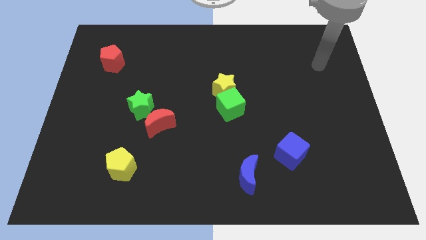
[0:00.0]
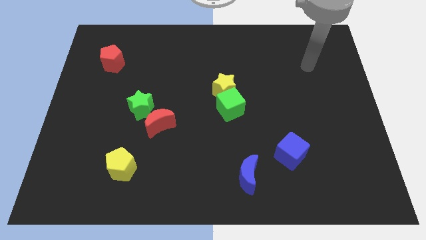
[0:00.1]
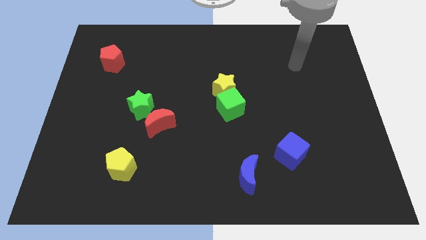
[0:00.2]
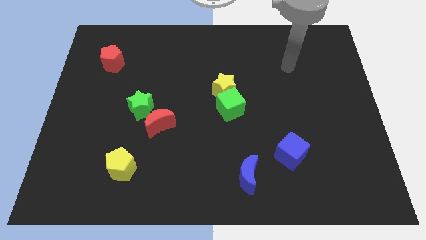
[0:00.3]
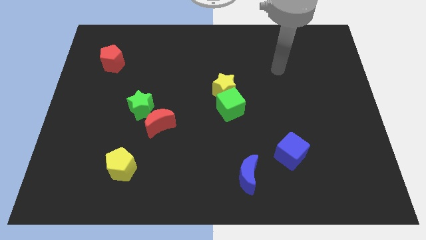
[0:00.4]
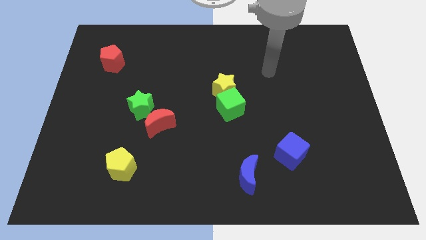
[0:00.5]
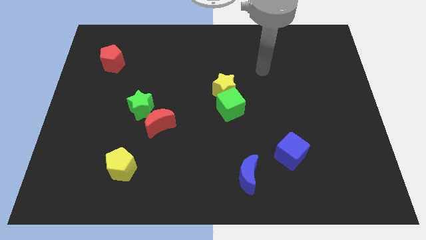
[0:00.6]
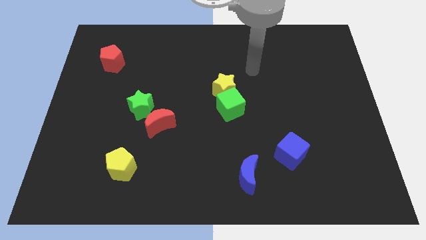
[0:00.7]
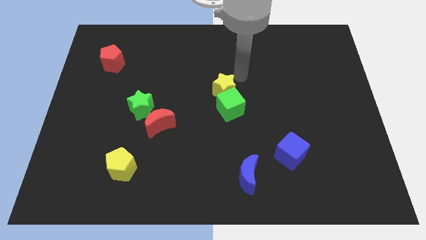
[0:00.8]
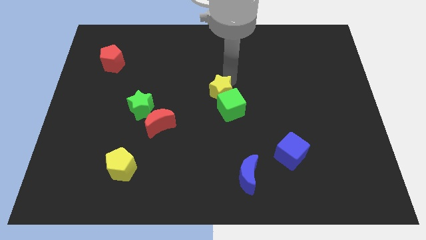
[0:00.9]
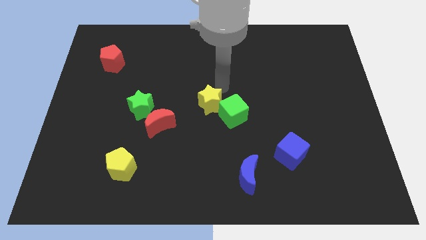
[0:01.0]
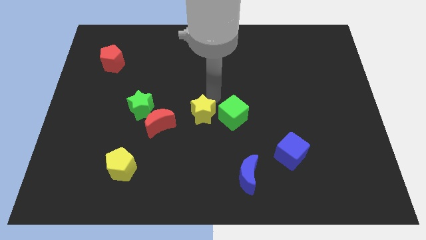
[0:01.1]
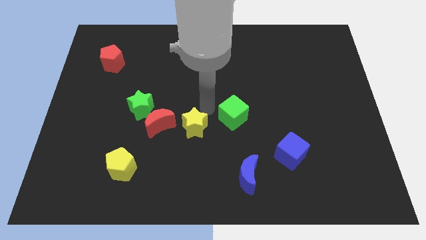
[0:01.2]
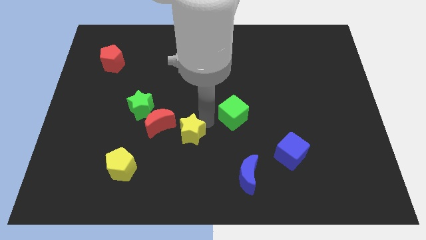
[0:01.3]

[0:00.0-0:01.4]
move the green cube away from the yellow star

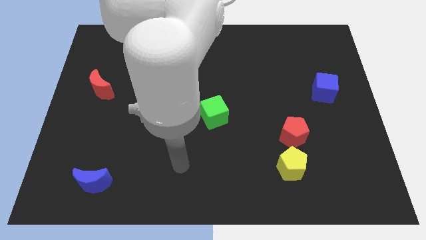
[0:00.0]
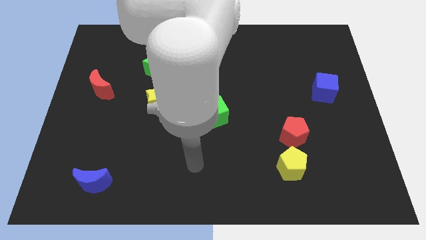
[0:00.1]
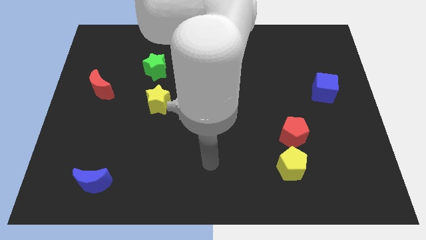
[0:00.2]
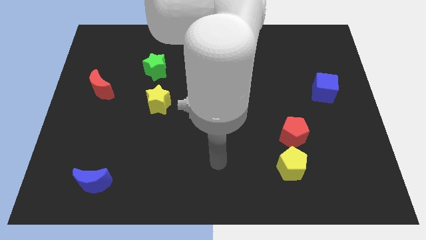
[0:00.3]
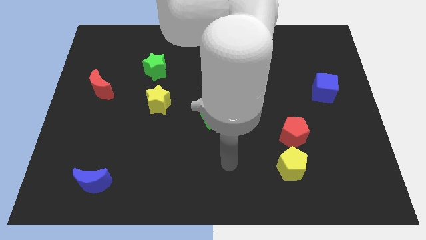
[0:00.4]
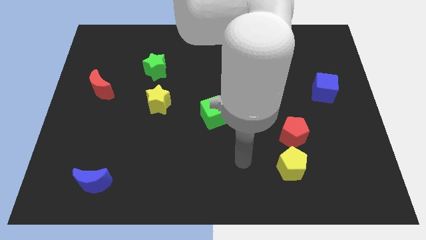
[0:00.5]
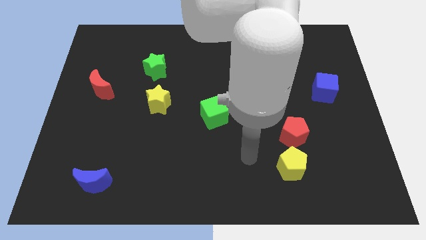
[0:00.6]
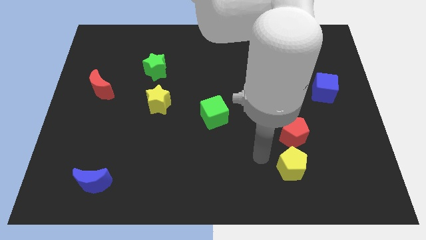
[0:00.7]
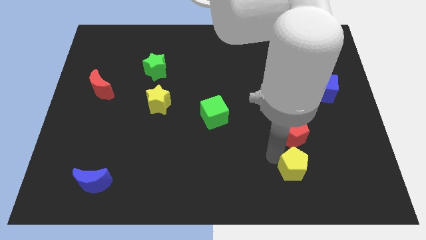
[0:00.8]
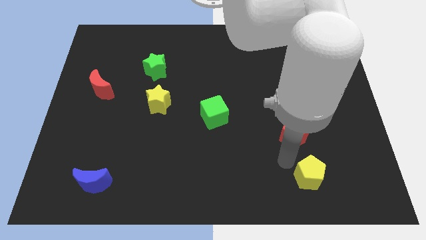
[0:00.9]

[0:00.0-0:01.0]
pull the red pentagon apart from the yellow pentagon

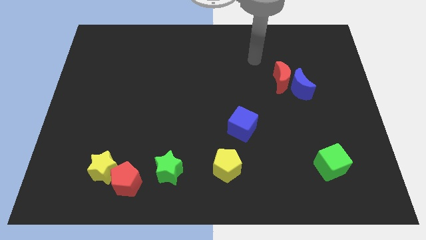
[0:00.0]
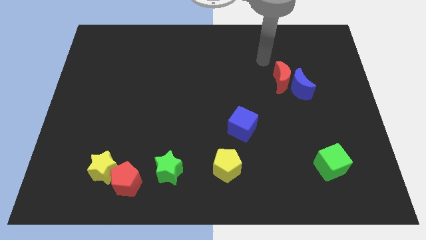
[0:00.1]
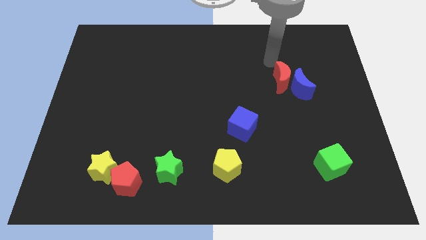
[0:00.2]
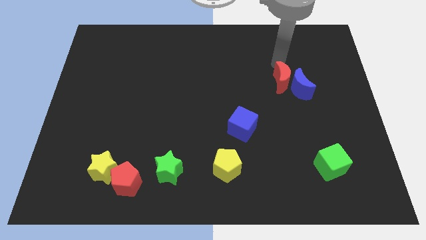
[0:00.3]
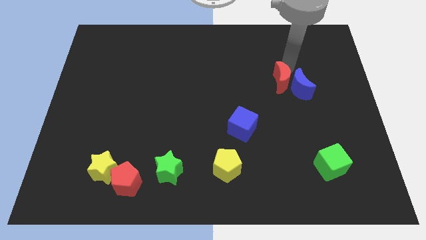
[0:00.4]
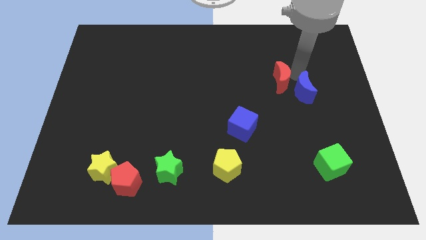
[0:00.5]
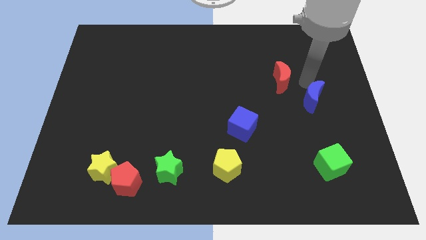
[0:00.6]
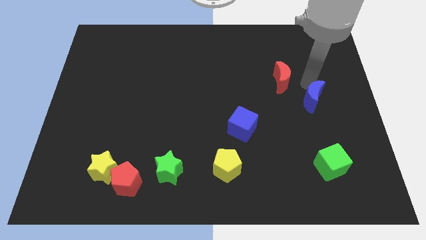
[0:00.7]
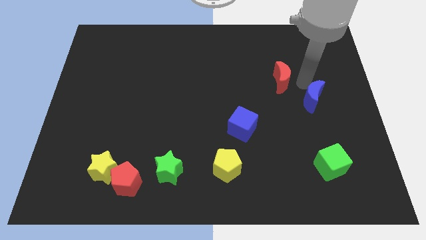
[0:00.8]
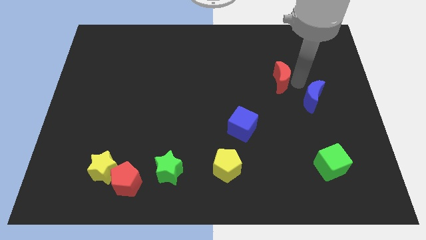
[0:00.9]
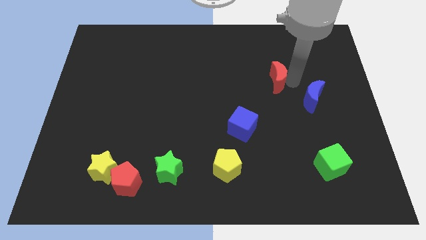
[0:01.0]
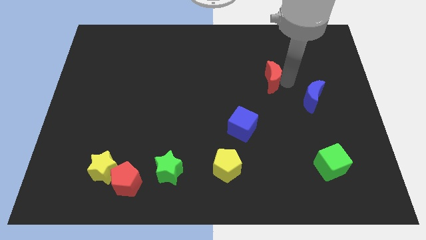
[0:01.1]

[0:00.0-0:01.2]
move the red moon away from the blue moon

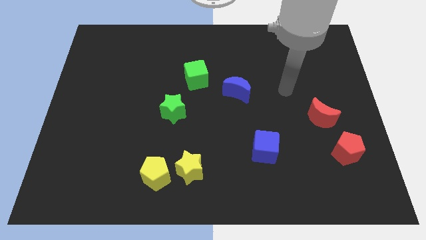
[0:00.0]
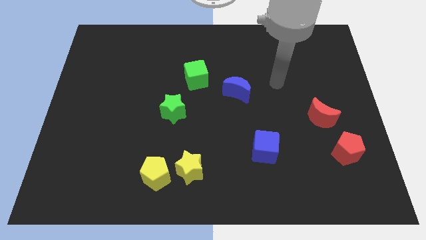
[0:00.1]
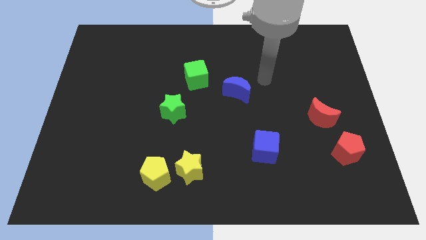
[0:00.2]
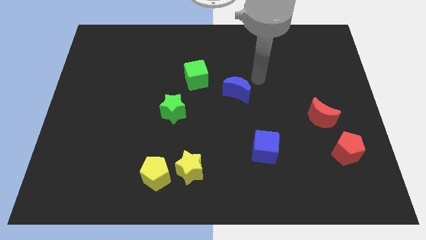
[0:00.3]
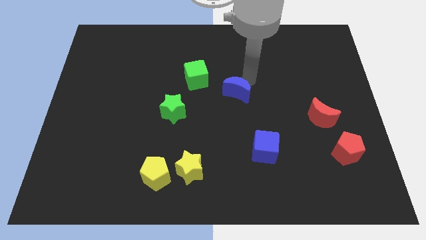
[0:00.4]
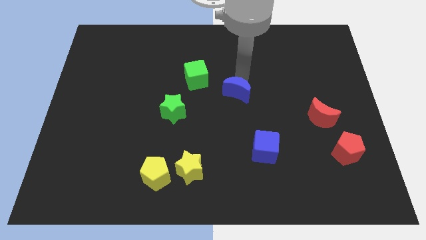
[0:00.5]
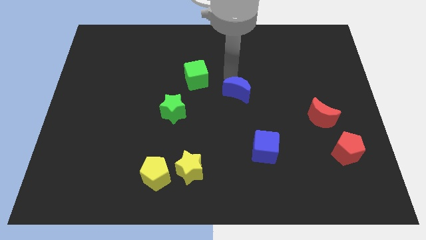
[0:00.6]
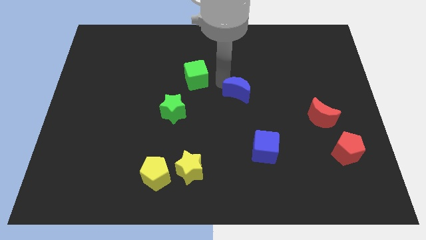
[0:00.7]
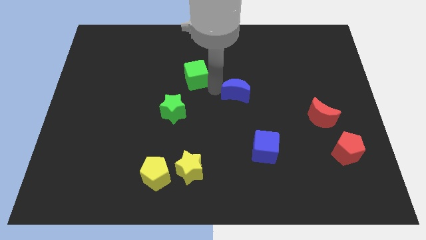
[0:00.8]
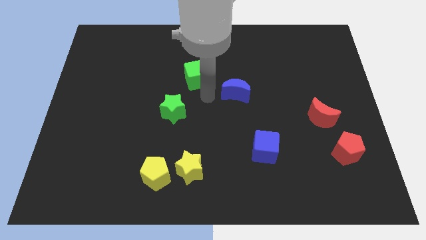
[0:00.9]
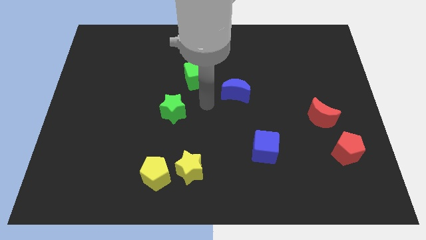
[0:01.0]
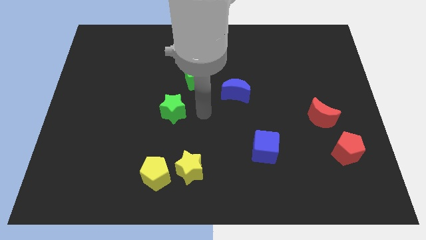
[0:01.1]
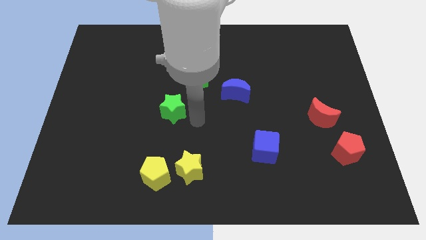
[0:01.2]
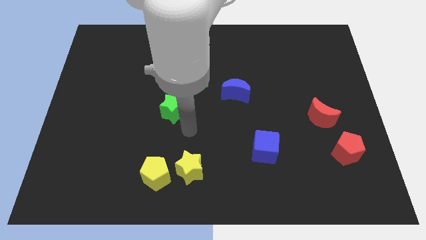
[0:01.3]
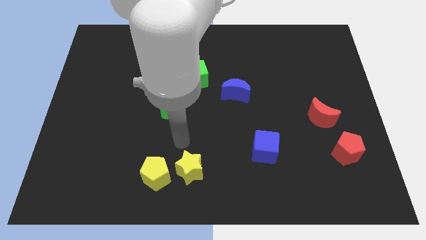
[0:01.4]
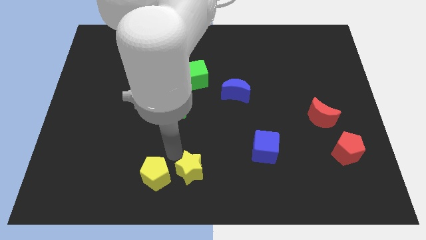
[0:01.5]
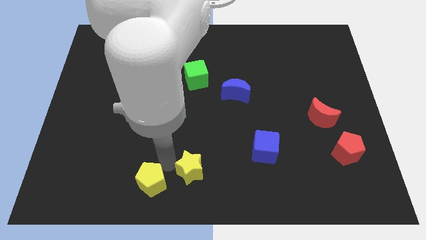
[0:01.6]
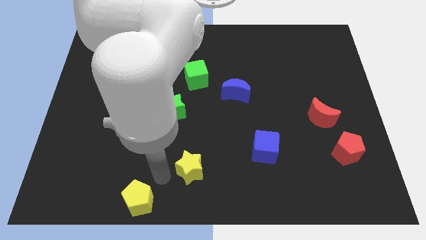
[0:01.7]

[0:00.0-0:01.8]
pull the yellow star apart from the yellow pentagon

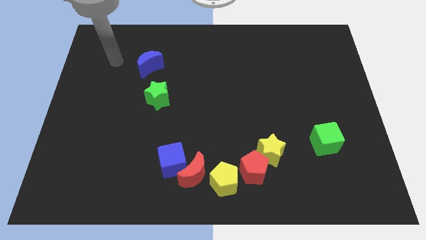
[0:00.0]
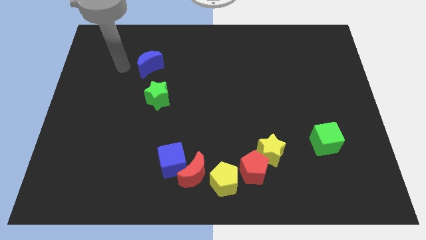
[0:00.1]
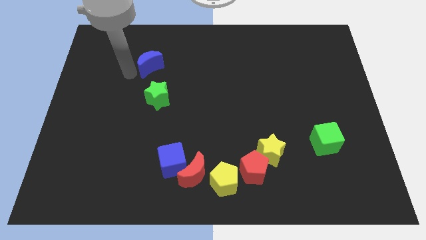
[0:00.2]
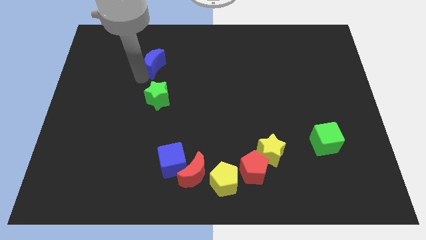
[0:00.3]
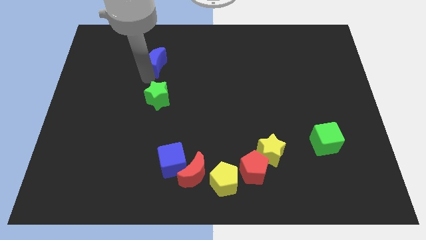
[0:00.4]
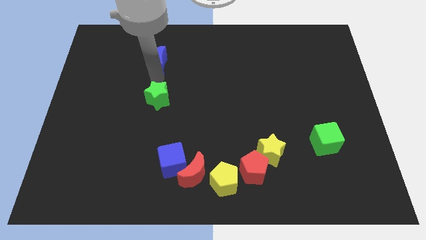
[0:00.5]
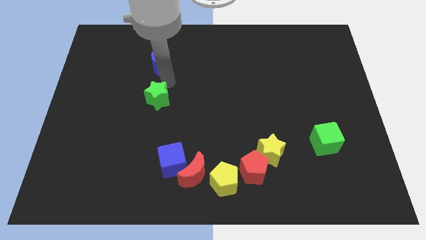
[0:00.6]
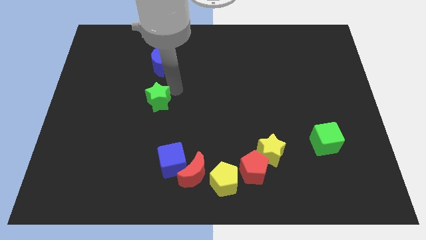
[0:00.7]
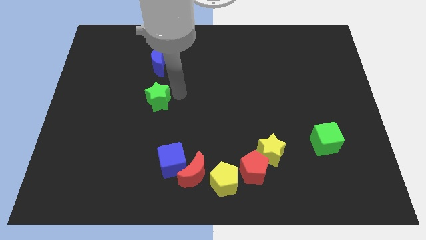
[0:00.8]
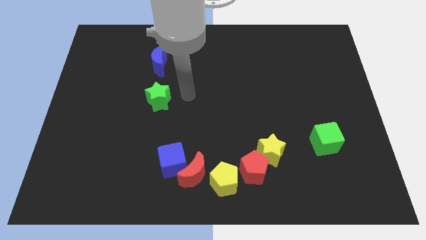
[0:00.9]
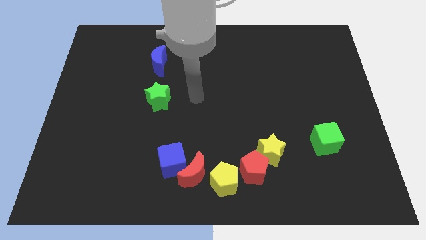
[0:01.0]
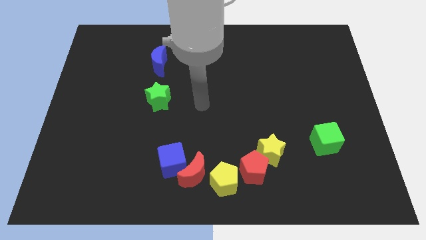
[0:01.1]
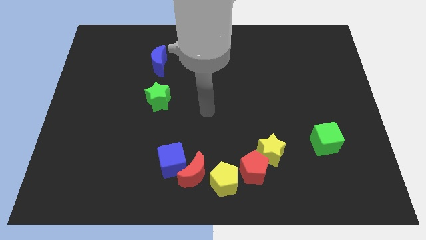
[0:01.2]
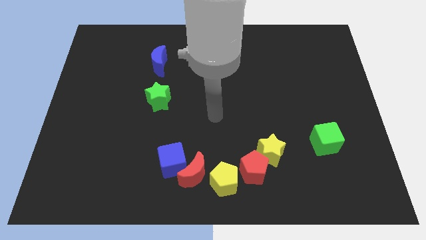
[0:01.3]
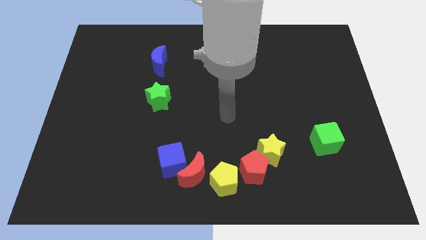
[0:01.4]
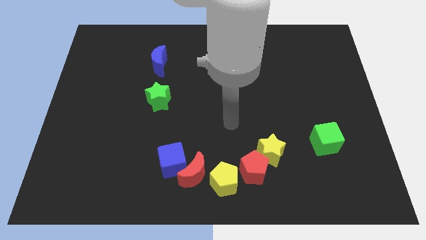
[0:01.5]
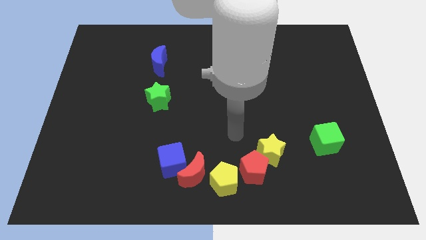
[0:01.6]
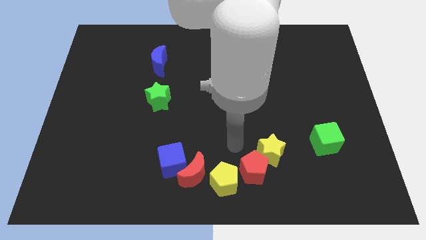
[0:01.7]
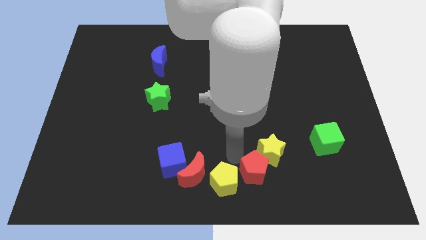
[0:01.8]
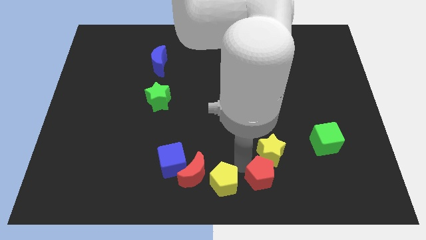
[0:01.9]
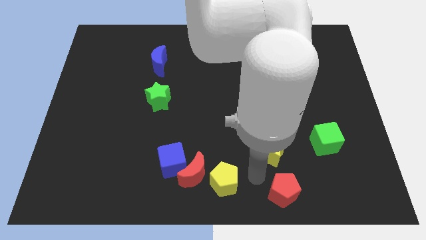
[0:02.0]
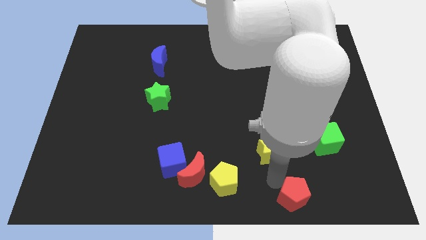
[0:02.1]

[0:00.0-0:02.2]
move the yellow star away from the red pentagon

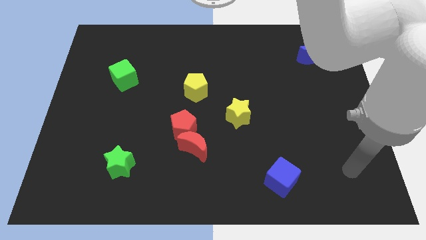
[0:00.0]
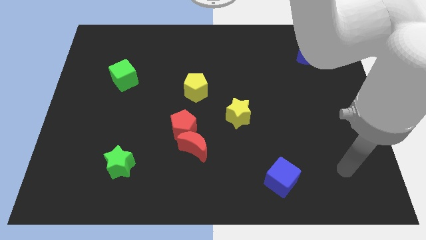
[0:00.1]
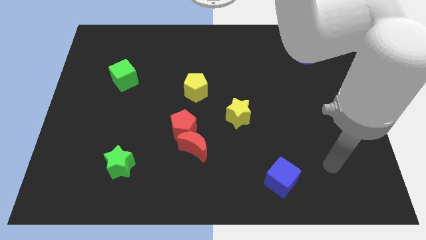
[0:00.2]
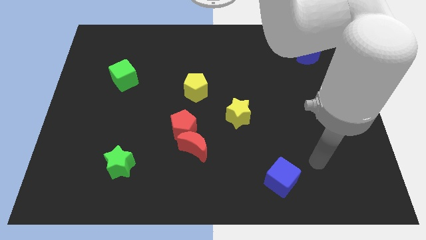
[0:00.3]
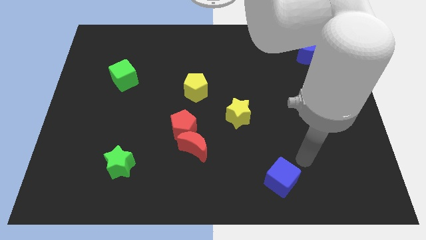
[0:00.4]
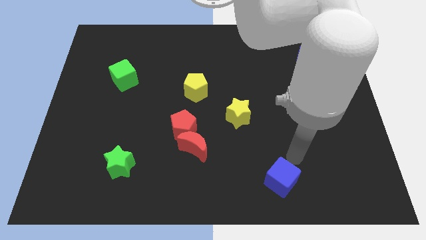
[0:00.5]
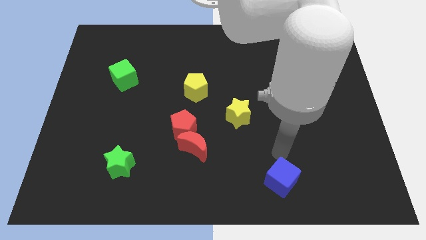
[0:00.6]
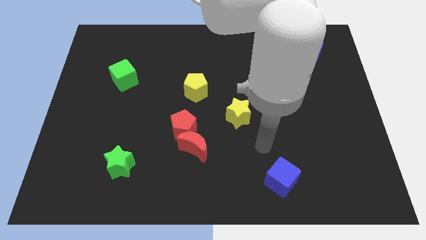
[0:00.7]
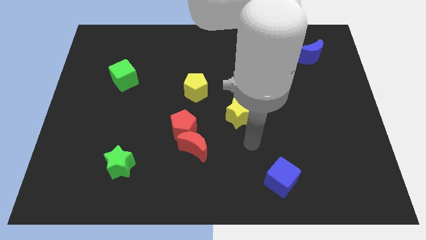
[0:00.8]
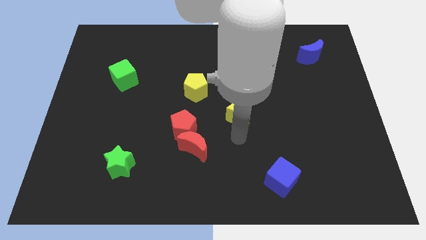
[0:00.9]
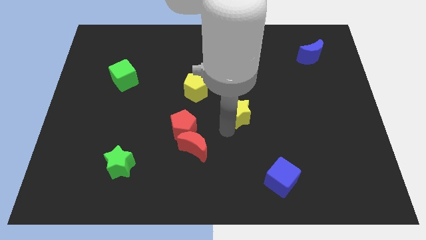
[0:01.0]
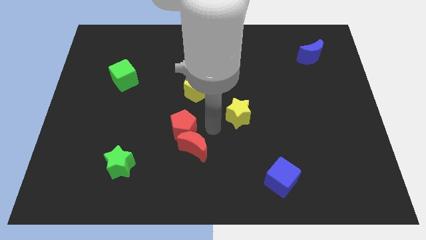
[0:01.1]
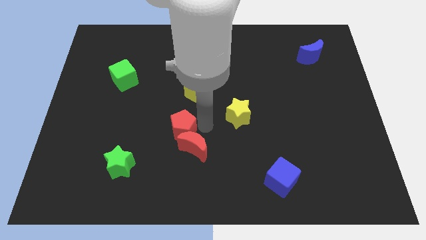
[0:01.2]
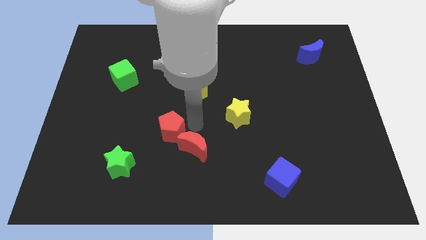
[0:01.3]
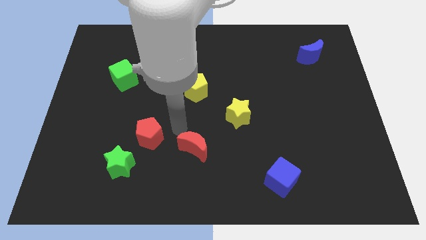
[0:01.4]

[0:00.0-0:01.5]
move the red moon away from the red pentagon

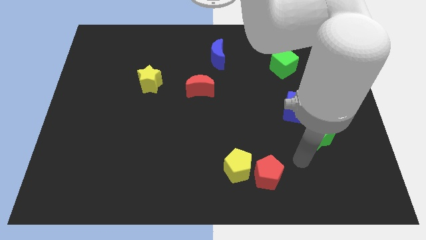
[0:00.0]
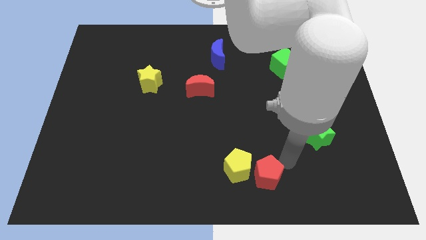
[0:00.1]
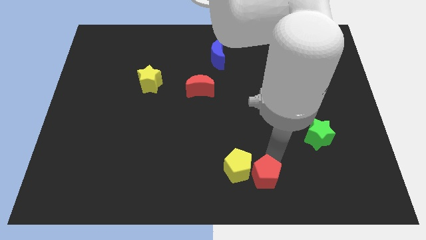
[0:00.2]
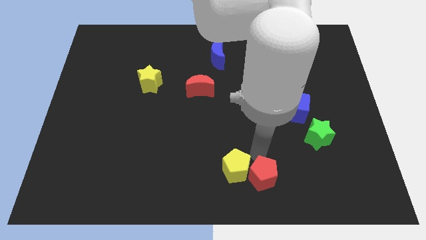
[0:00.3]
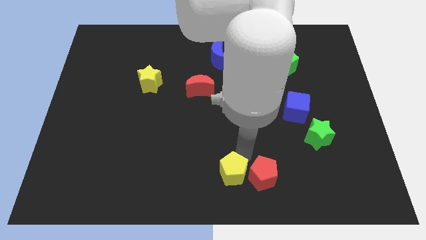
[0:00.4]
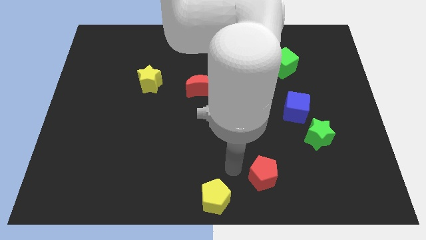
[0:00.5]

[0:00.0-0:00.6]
separate the red pentagon from the yellow pentagon
